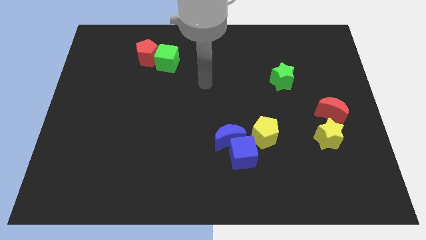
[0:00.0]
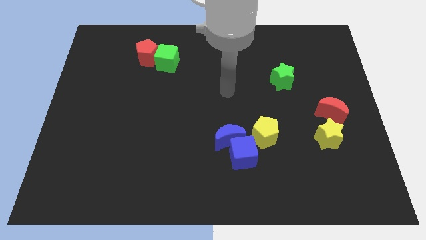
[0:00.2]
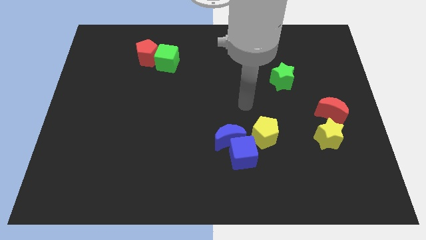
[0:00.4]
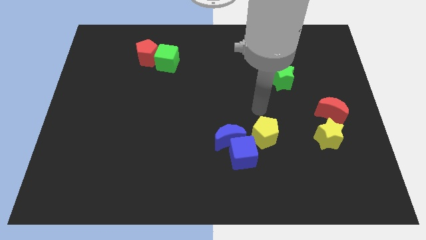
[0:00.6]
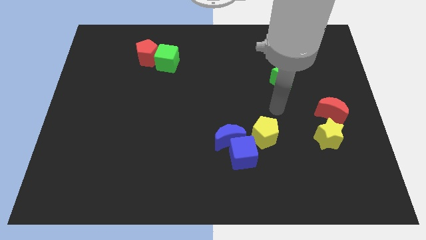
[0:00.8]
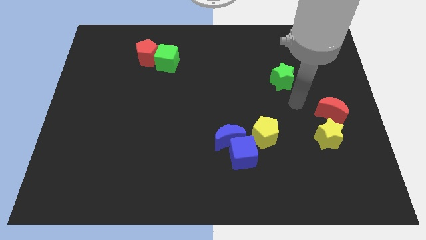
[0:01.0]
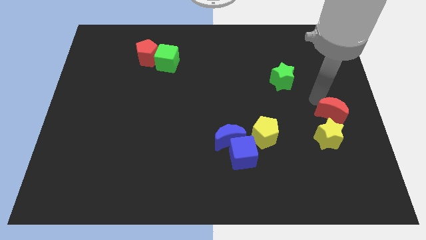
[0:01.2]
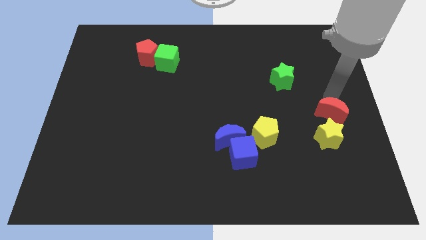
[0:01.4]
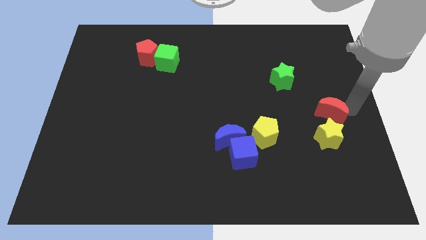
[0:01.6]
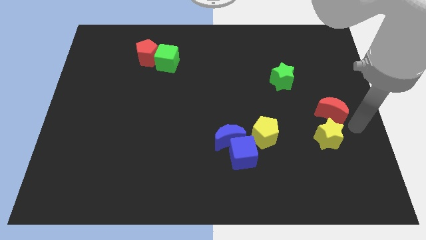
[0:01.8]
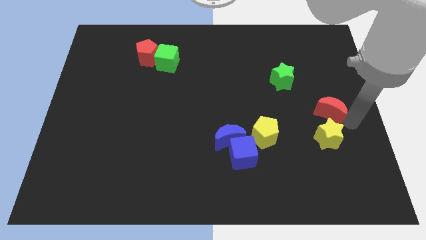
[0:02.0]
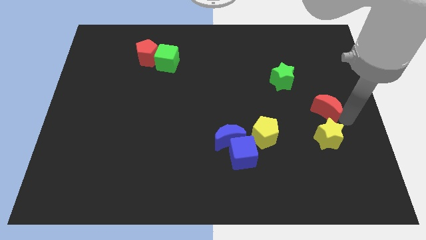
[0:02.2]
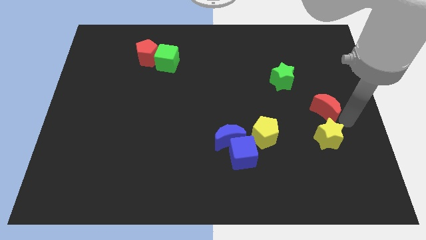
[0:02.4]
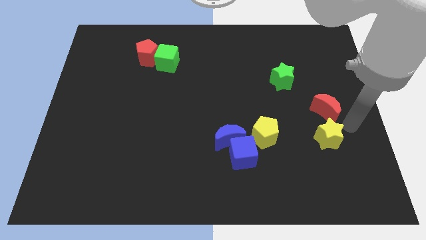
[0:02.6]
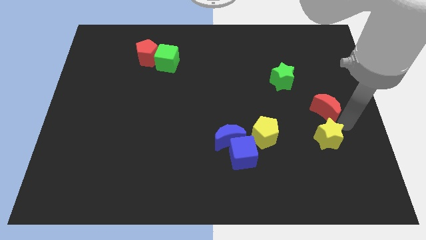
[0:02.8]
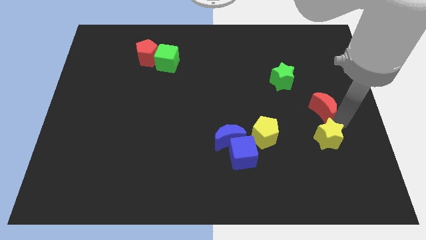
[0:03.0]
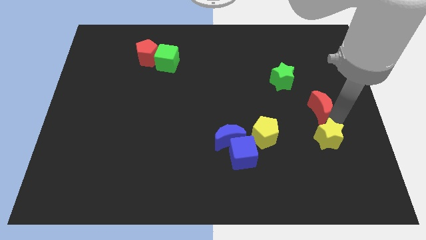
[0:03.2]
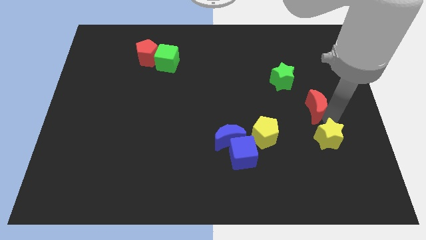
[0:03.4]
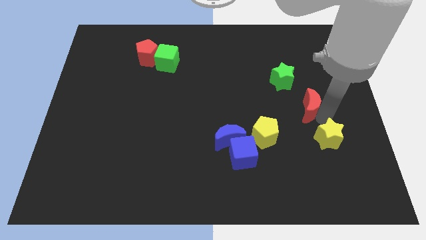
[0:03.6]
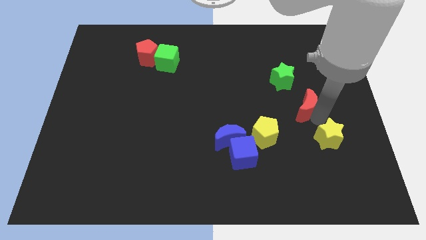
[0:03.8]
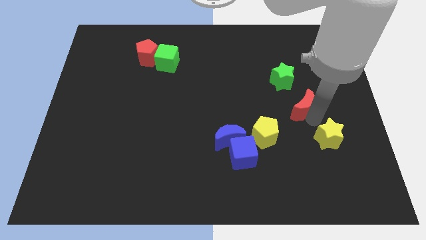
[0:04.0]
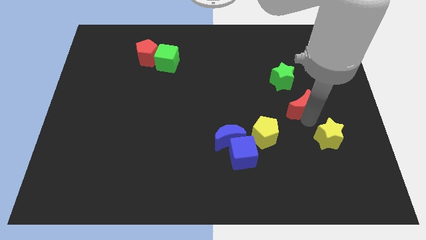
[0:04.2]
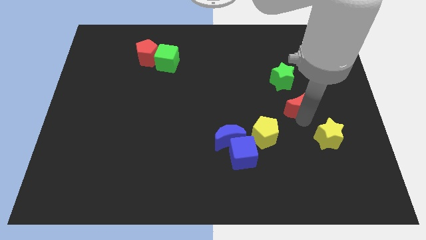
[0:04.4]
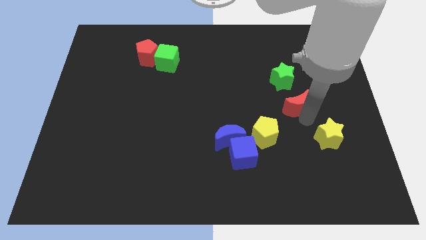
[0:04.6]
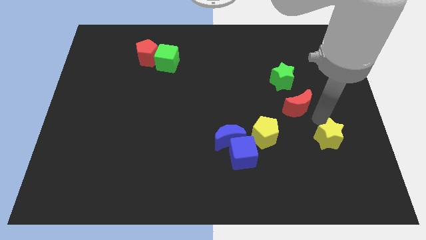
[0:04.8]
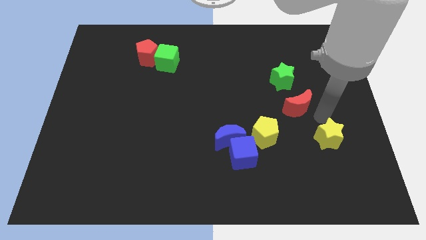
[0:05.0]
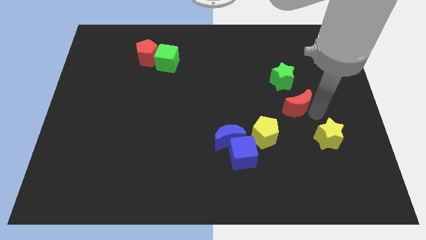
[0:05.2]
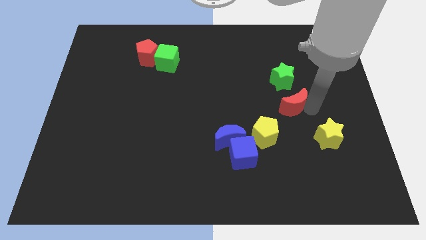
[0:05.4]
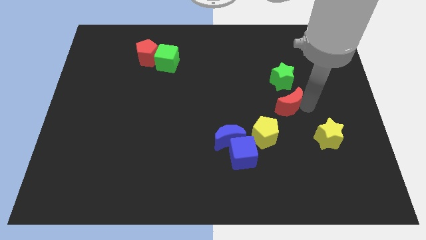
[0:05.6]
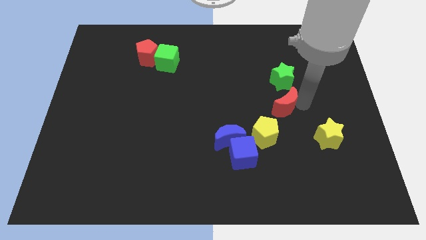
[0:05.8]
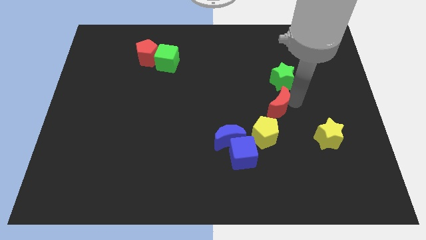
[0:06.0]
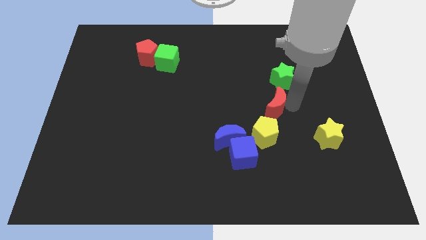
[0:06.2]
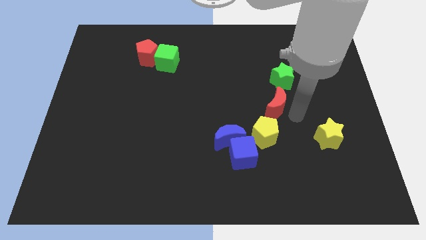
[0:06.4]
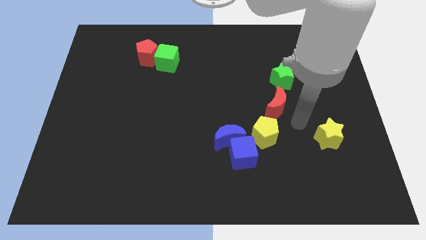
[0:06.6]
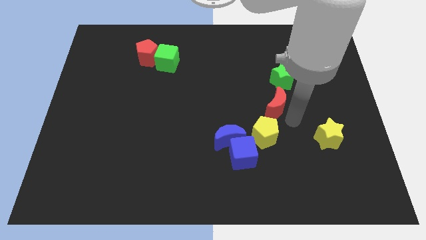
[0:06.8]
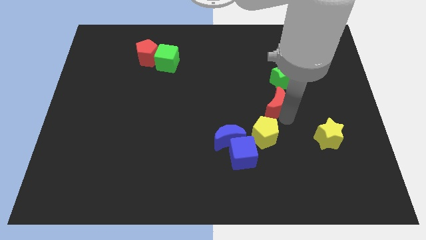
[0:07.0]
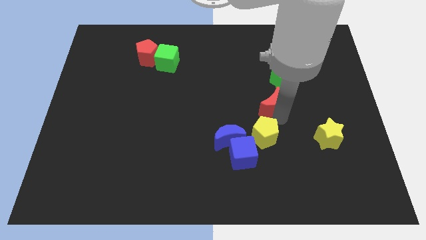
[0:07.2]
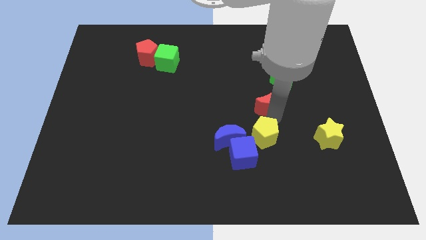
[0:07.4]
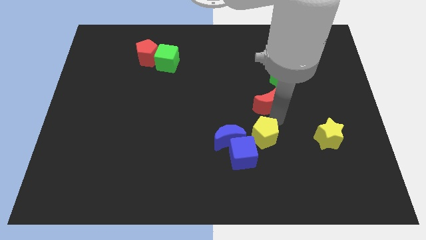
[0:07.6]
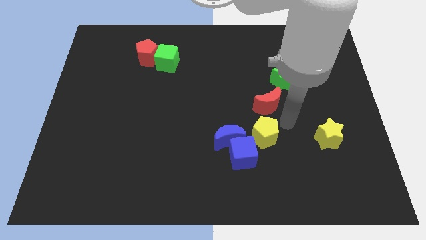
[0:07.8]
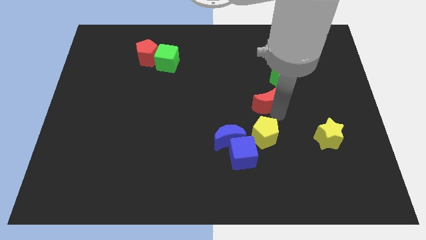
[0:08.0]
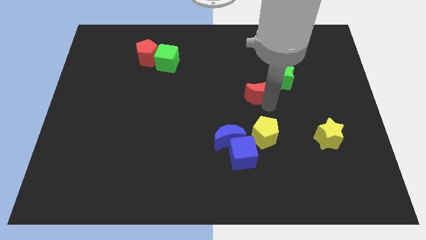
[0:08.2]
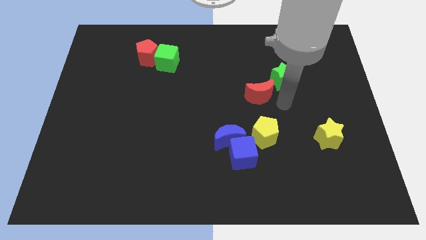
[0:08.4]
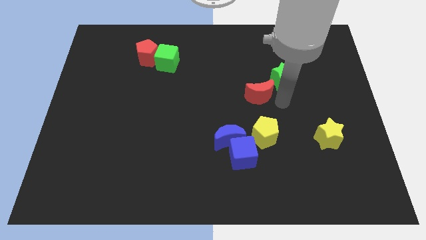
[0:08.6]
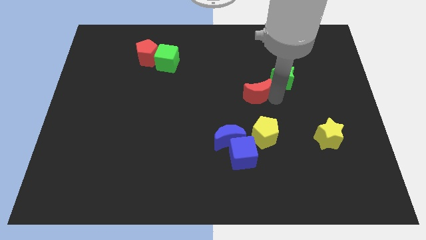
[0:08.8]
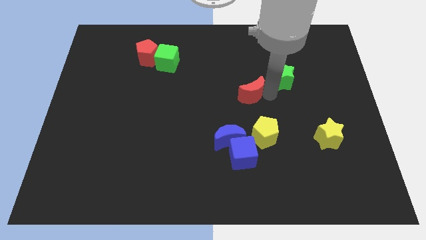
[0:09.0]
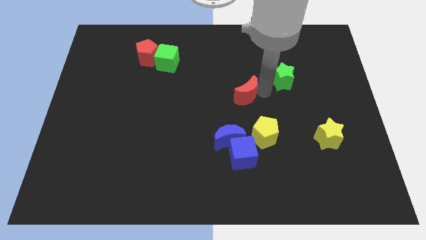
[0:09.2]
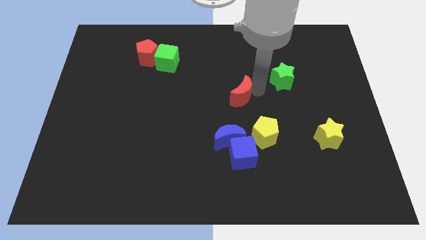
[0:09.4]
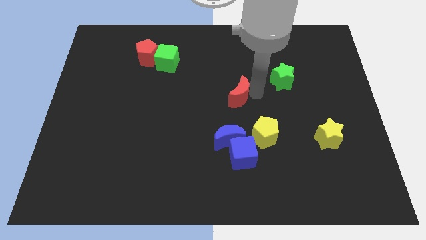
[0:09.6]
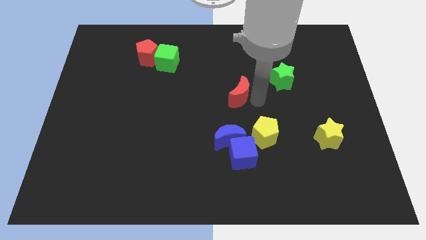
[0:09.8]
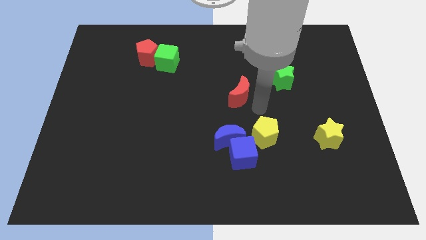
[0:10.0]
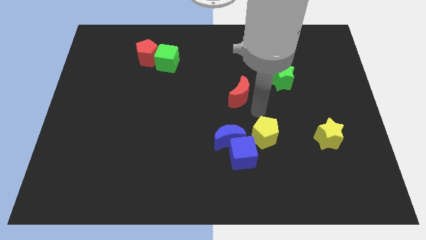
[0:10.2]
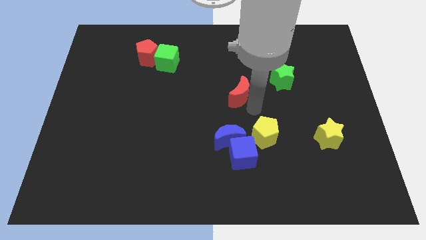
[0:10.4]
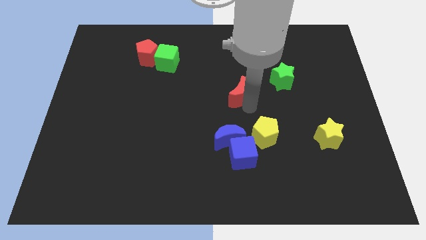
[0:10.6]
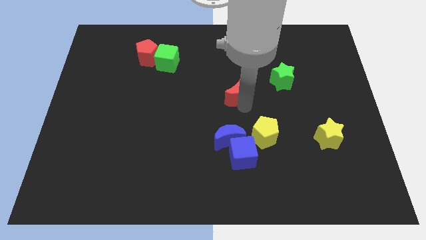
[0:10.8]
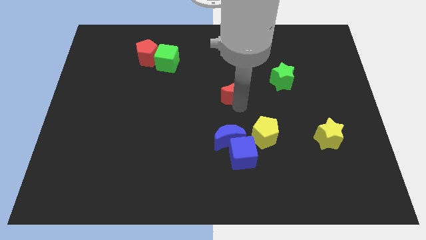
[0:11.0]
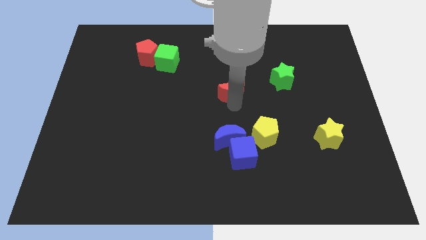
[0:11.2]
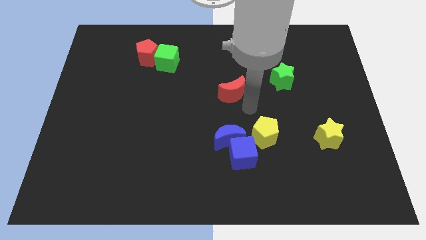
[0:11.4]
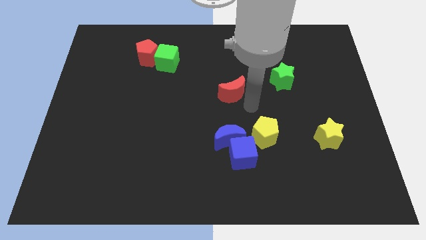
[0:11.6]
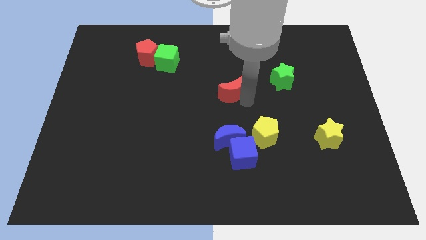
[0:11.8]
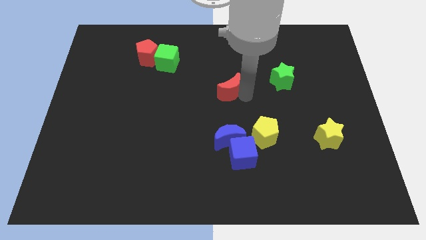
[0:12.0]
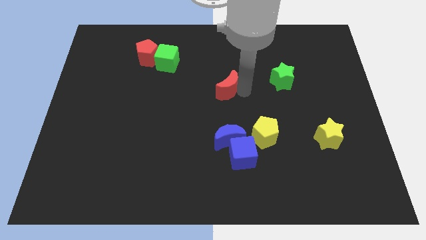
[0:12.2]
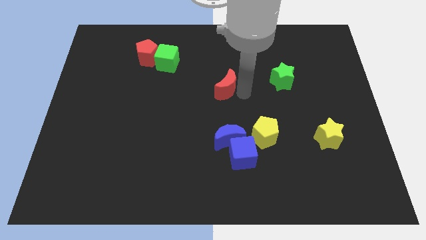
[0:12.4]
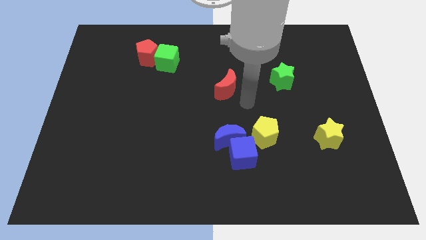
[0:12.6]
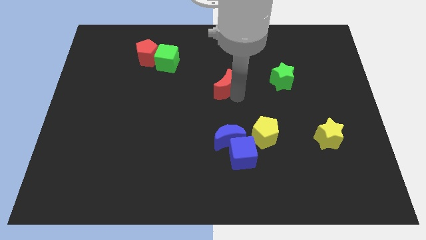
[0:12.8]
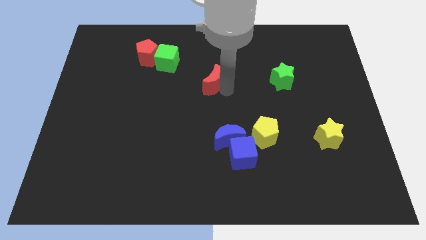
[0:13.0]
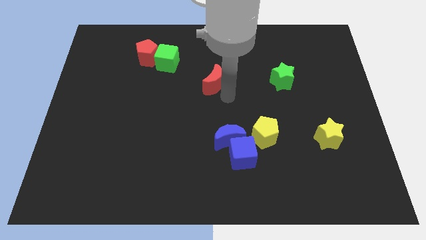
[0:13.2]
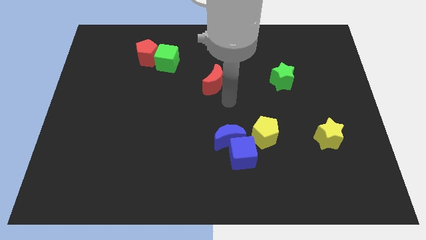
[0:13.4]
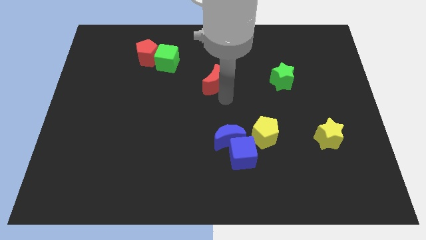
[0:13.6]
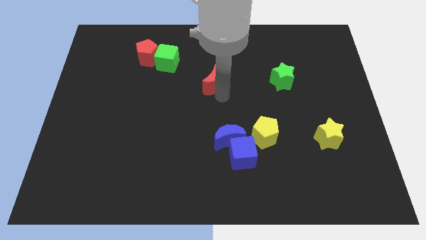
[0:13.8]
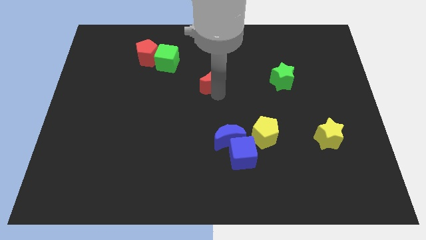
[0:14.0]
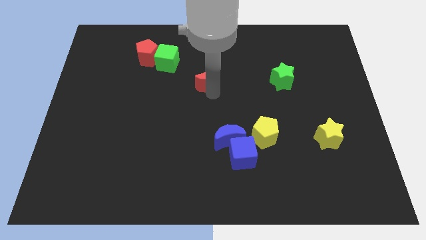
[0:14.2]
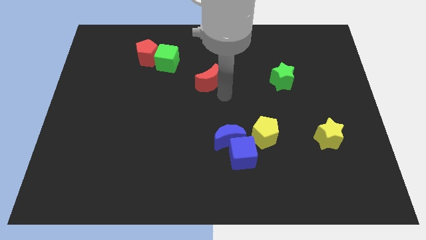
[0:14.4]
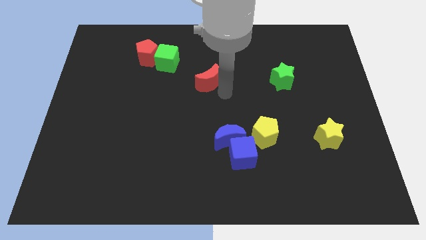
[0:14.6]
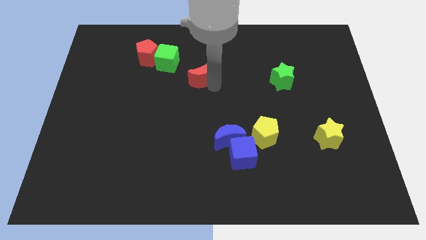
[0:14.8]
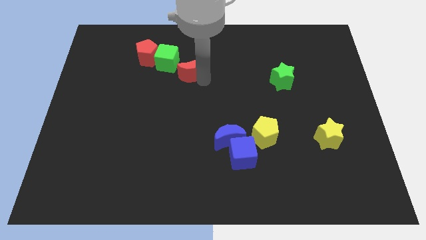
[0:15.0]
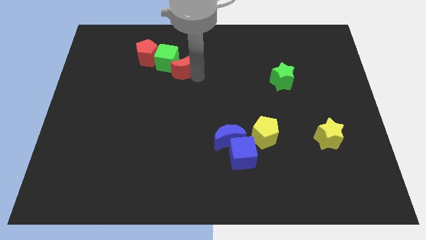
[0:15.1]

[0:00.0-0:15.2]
push the red moon close to the green cube
